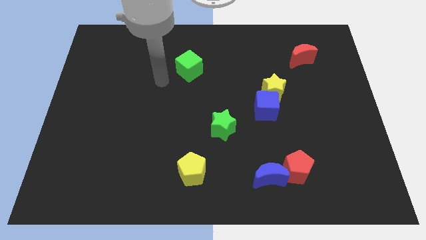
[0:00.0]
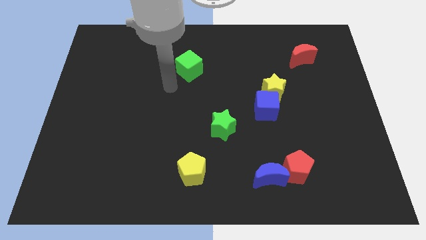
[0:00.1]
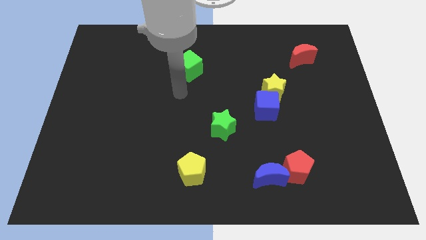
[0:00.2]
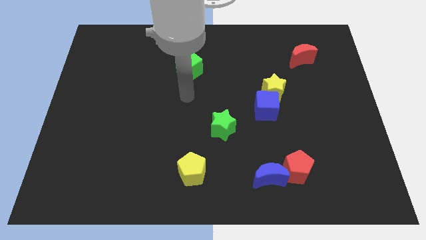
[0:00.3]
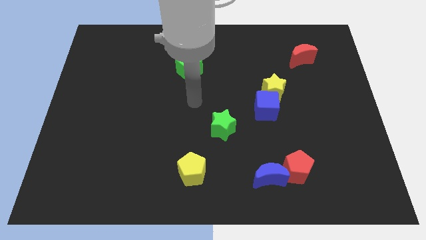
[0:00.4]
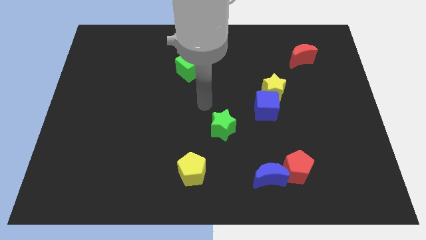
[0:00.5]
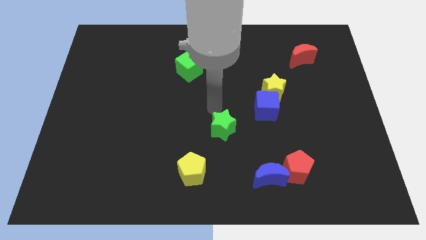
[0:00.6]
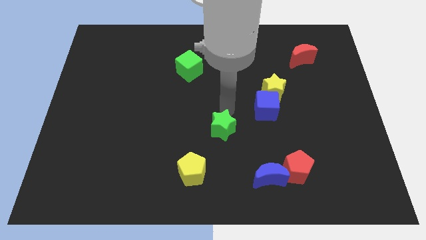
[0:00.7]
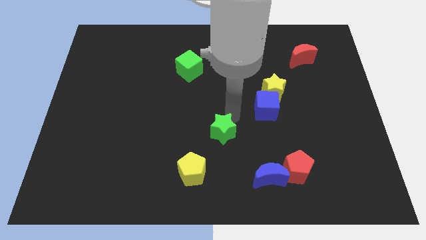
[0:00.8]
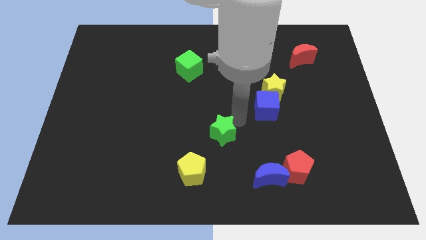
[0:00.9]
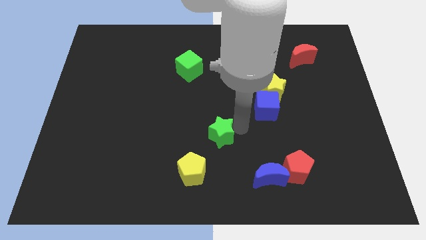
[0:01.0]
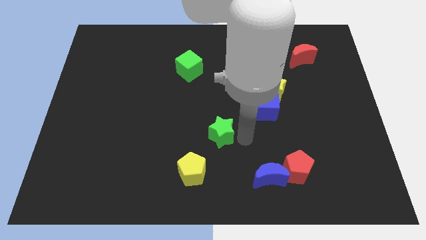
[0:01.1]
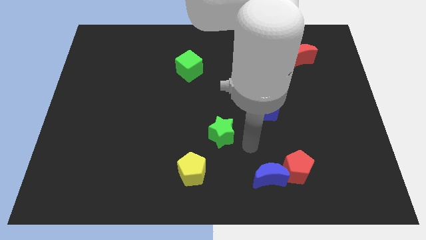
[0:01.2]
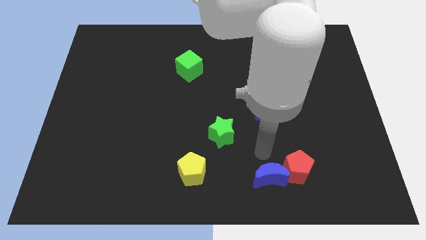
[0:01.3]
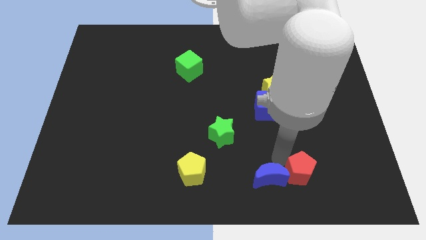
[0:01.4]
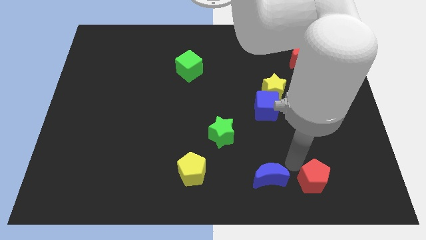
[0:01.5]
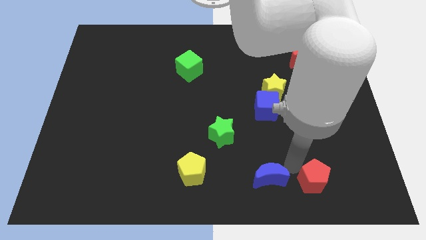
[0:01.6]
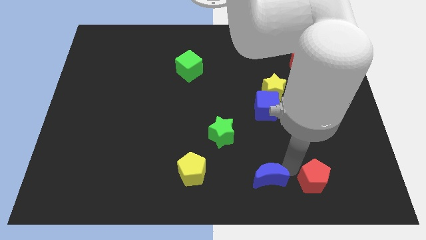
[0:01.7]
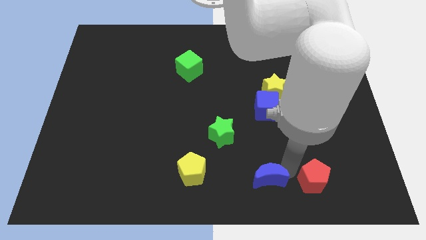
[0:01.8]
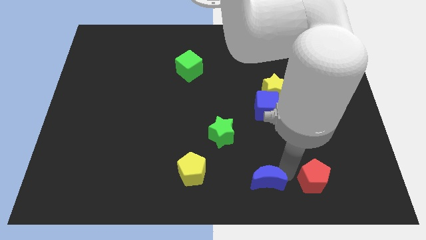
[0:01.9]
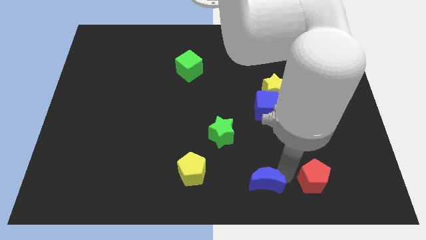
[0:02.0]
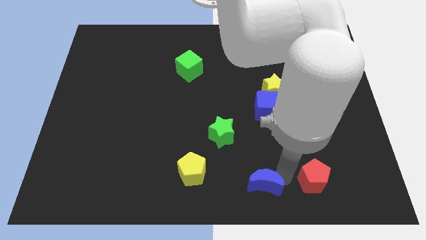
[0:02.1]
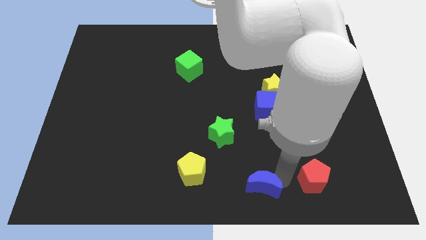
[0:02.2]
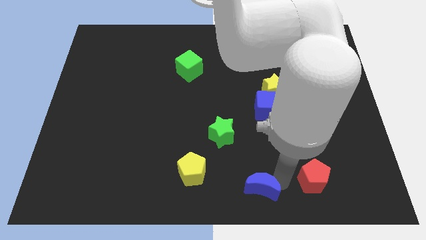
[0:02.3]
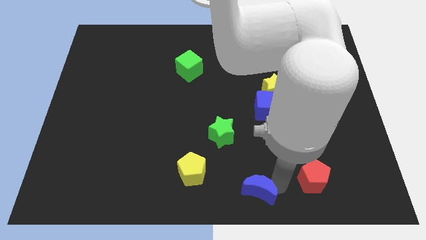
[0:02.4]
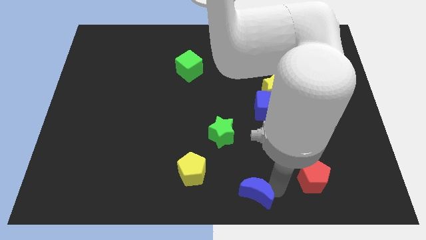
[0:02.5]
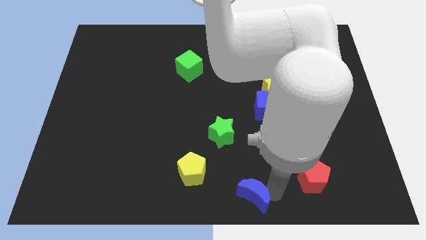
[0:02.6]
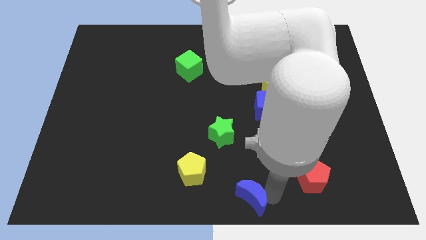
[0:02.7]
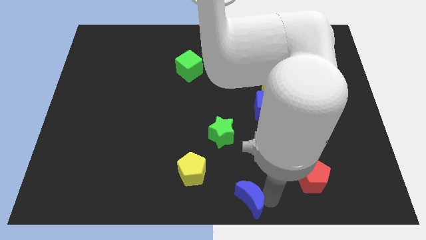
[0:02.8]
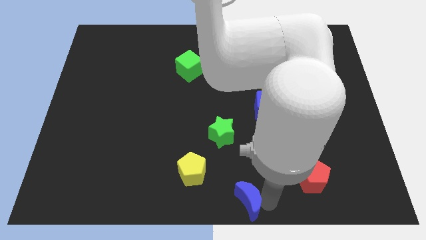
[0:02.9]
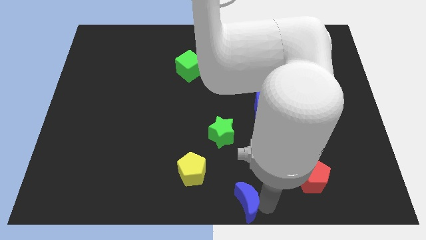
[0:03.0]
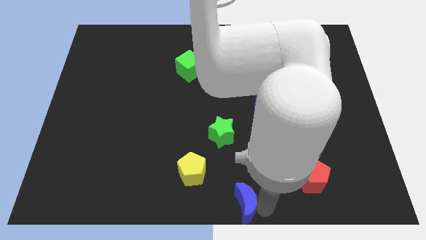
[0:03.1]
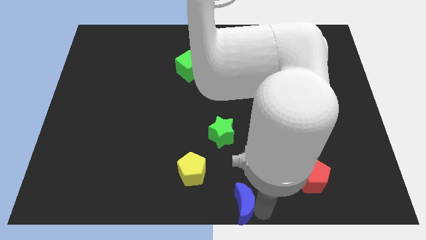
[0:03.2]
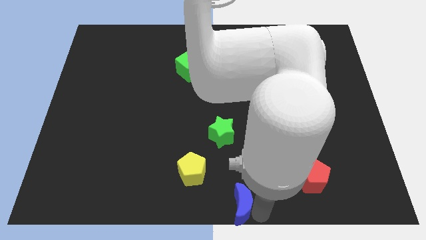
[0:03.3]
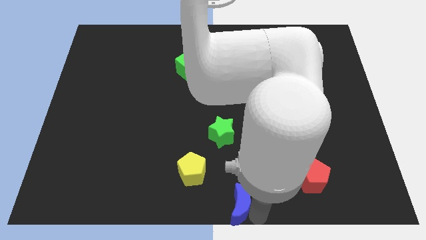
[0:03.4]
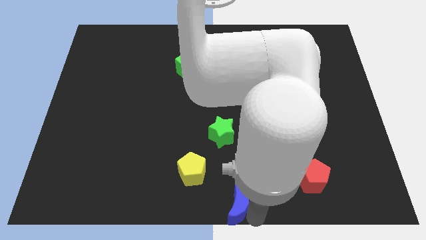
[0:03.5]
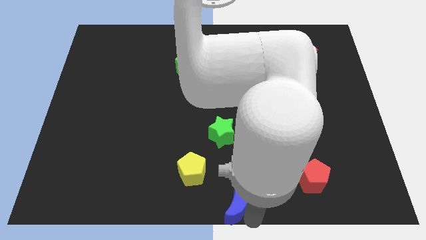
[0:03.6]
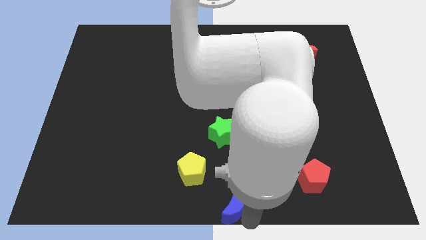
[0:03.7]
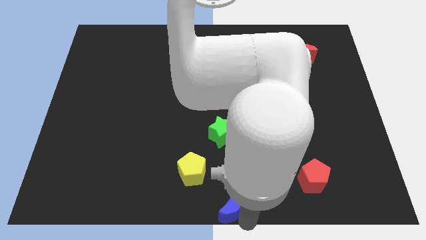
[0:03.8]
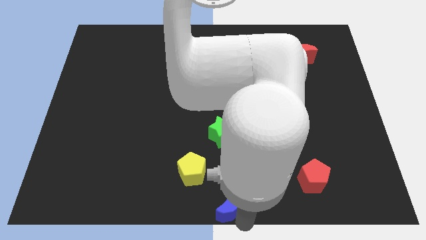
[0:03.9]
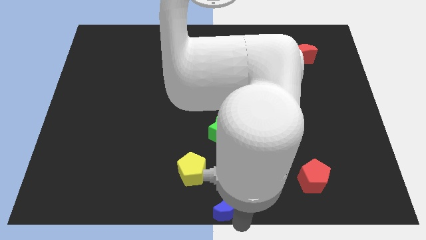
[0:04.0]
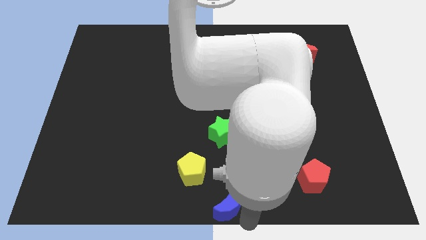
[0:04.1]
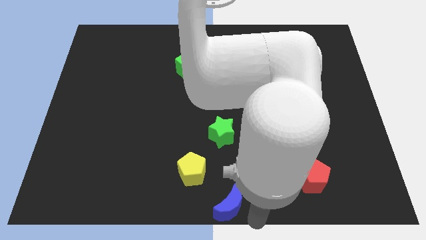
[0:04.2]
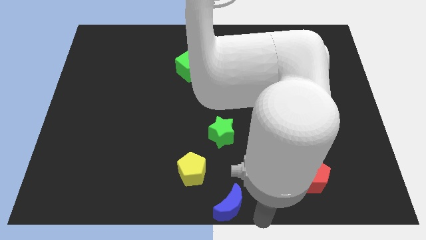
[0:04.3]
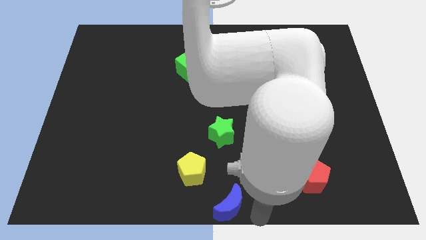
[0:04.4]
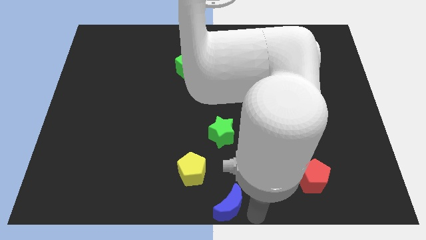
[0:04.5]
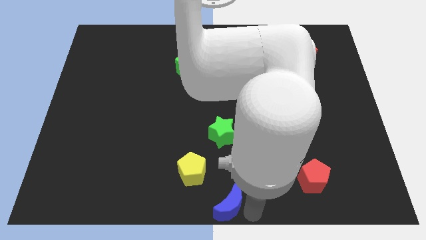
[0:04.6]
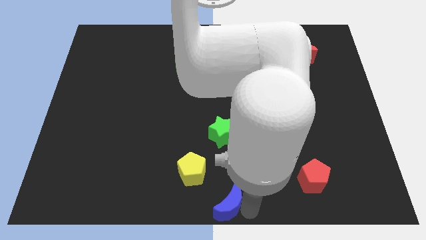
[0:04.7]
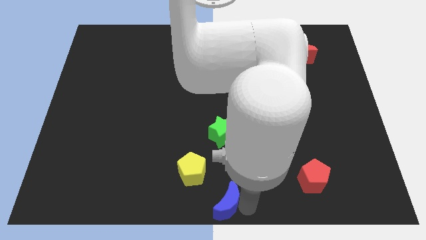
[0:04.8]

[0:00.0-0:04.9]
slightly slide the blue moon left

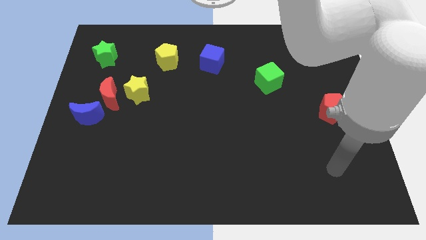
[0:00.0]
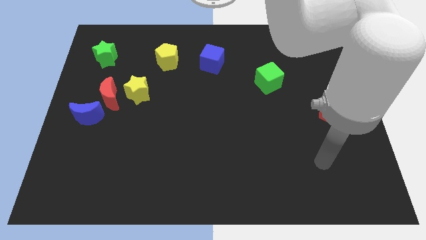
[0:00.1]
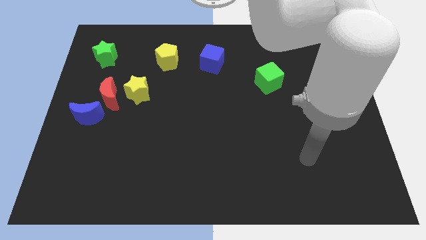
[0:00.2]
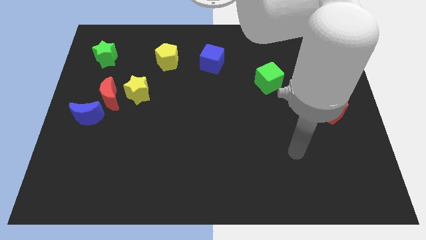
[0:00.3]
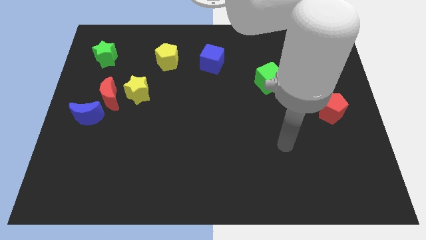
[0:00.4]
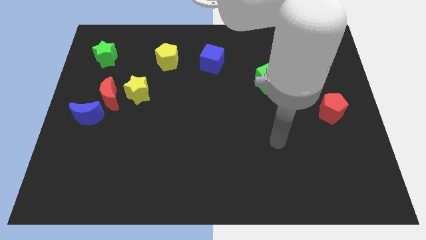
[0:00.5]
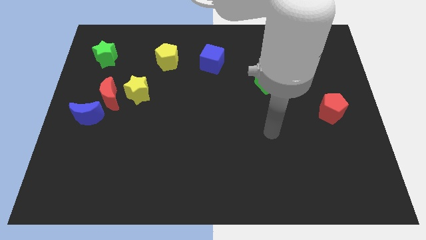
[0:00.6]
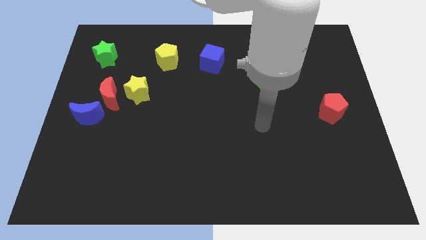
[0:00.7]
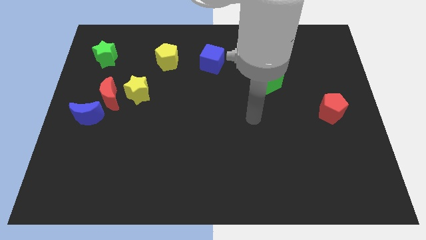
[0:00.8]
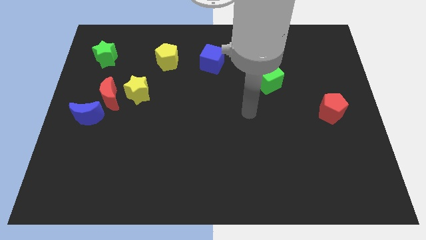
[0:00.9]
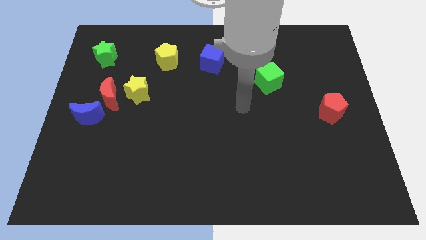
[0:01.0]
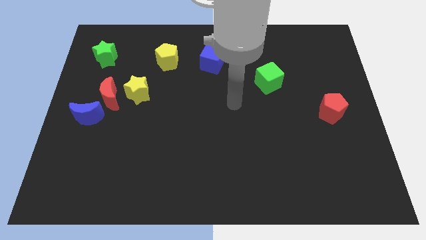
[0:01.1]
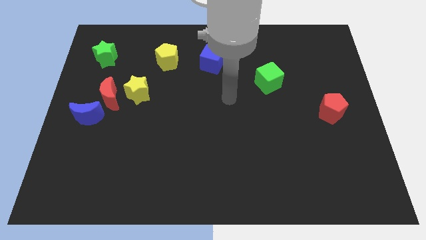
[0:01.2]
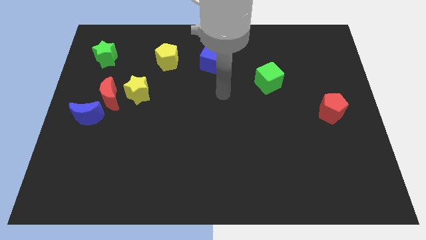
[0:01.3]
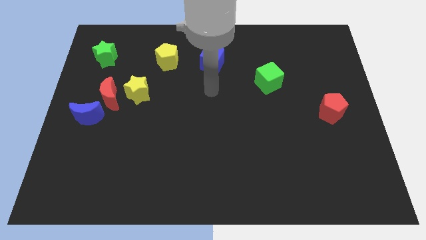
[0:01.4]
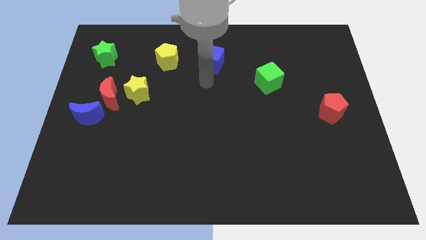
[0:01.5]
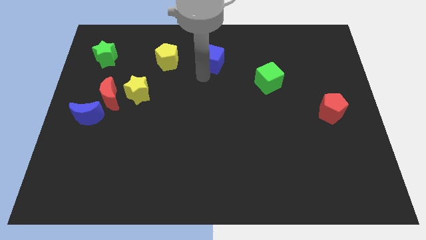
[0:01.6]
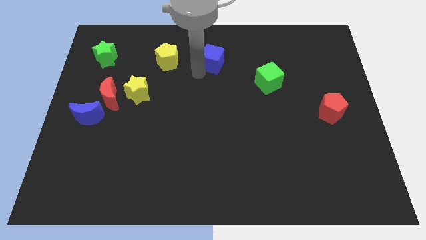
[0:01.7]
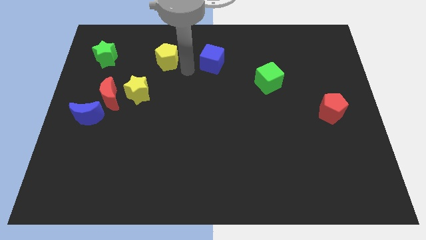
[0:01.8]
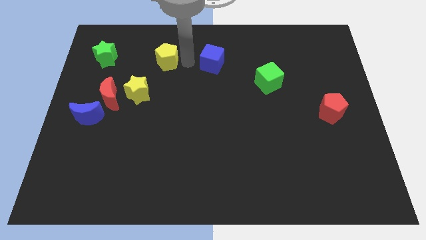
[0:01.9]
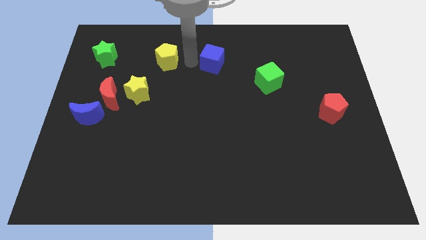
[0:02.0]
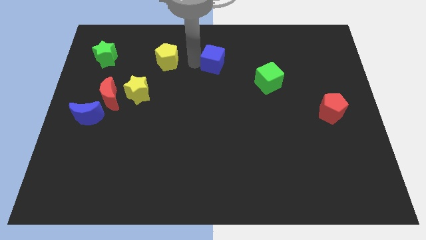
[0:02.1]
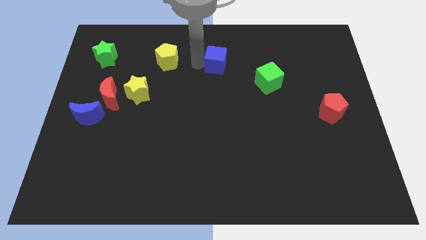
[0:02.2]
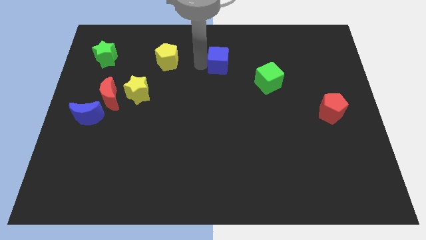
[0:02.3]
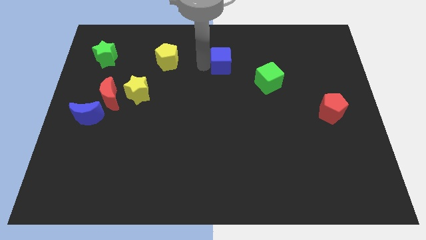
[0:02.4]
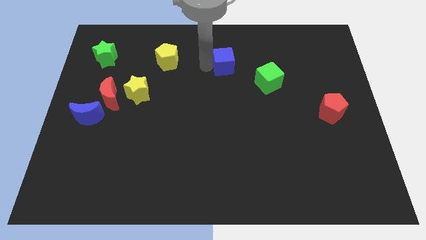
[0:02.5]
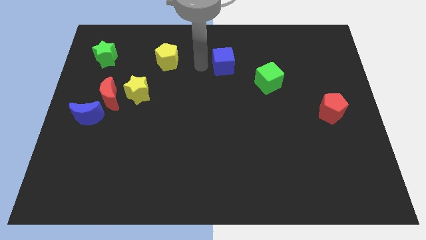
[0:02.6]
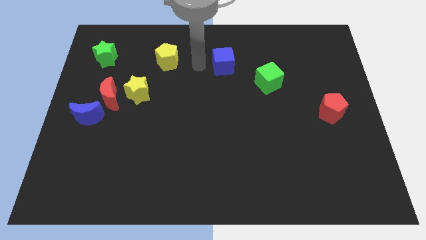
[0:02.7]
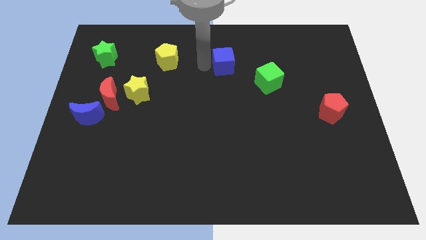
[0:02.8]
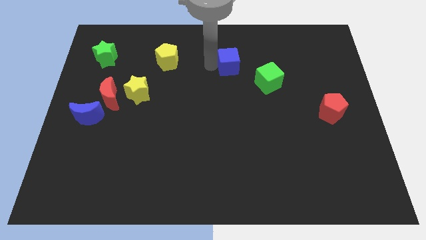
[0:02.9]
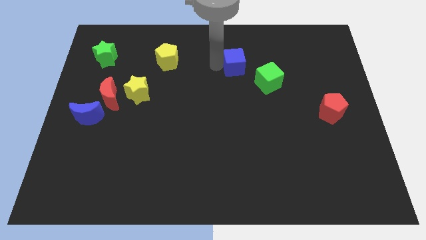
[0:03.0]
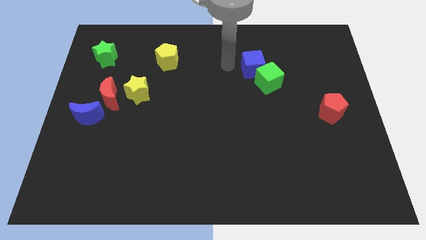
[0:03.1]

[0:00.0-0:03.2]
slide the blue cube to the right a little bit
